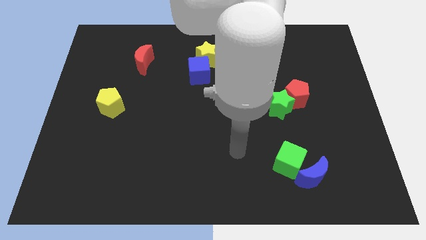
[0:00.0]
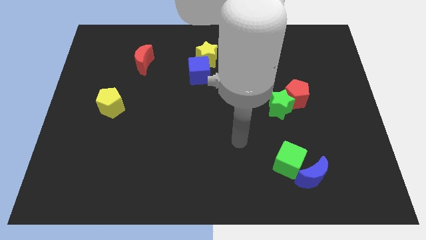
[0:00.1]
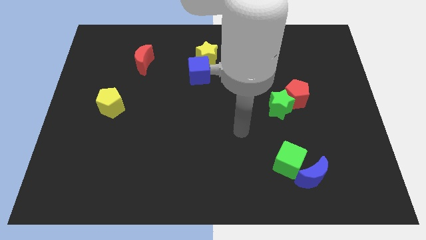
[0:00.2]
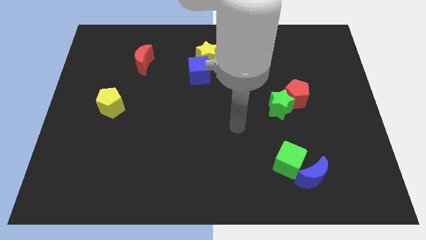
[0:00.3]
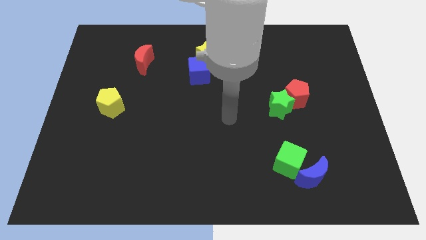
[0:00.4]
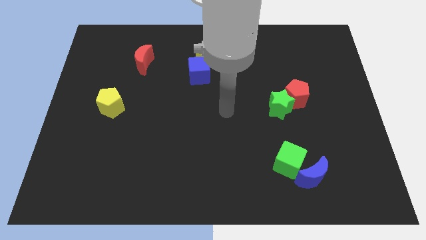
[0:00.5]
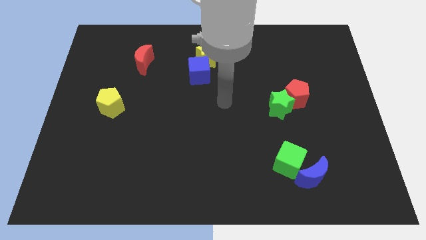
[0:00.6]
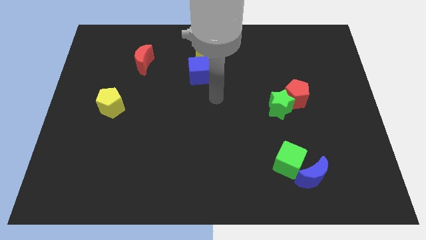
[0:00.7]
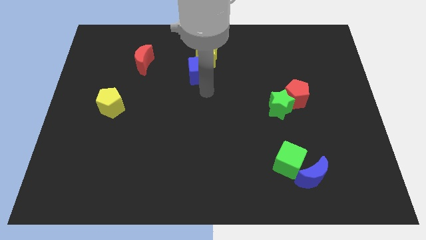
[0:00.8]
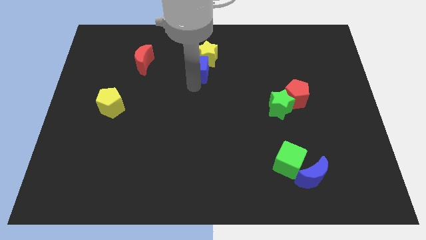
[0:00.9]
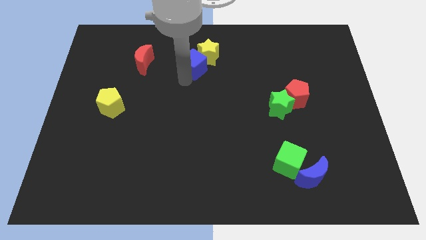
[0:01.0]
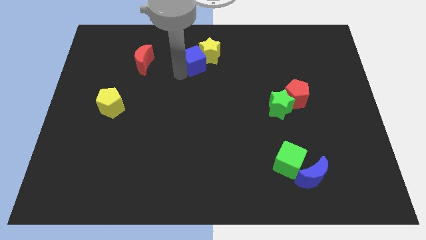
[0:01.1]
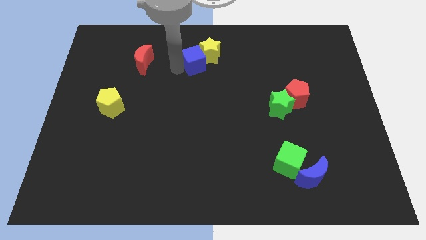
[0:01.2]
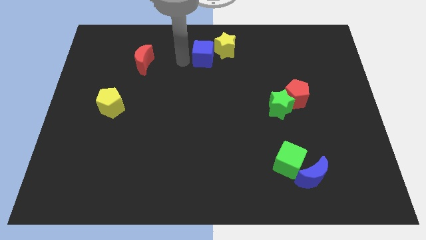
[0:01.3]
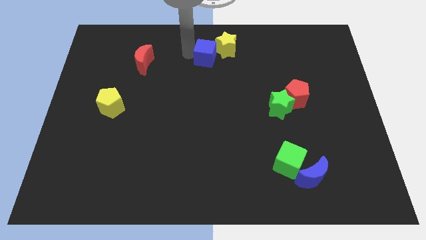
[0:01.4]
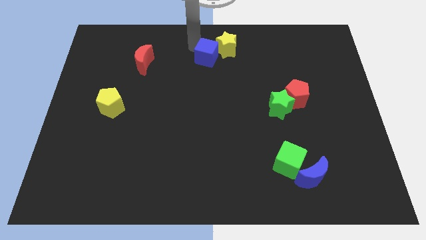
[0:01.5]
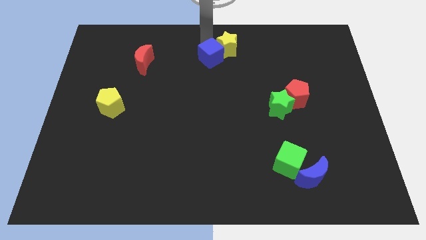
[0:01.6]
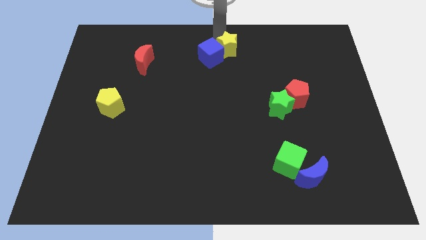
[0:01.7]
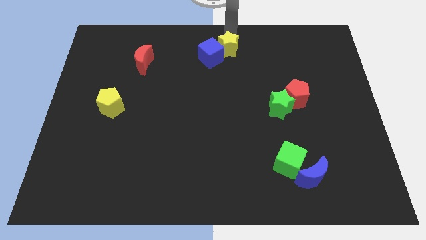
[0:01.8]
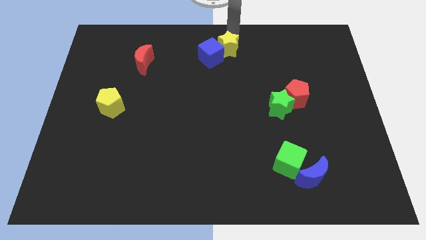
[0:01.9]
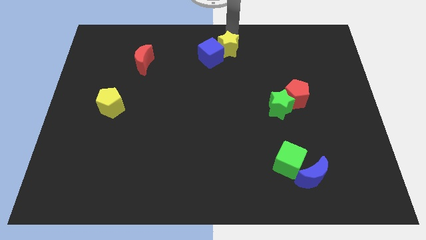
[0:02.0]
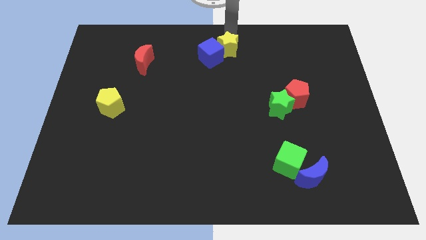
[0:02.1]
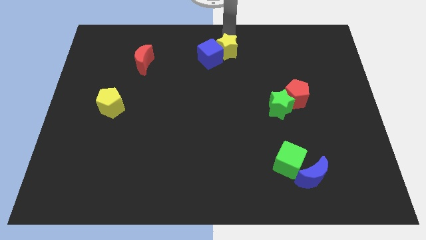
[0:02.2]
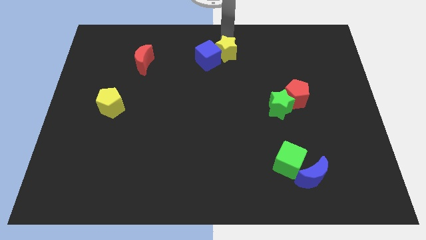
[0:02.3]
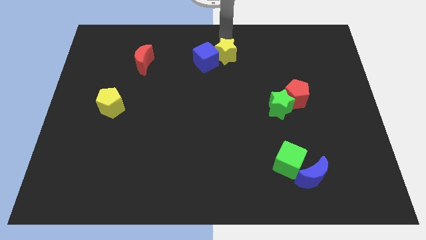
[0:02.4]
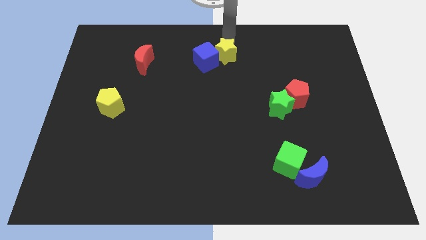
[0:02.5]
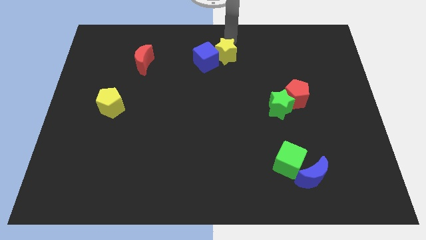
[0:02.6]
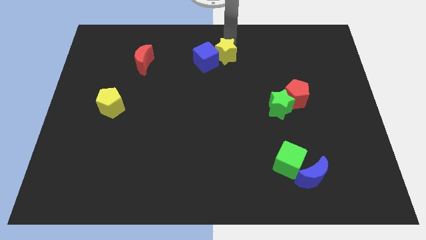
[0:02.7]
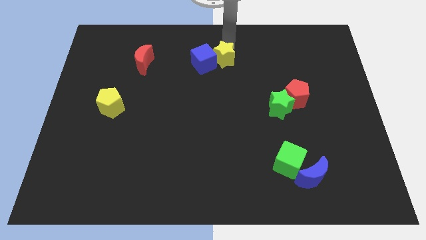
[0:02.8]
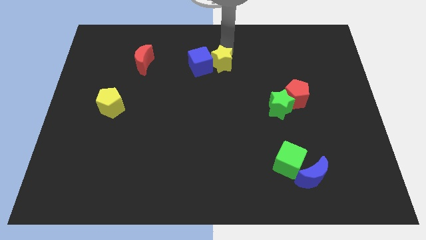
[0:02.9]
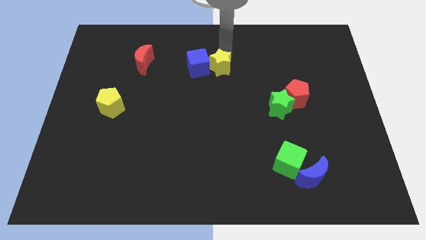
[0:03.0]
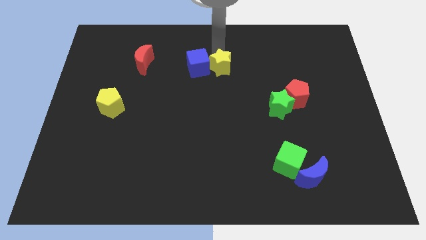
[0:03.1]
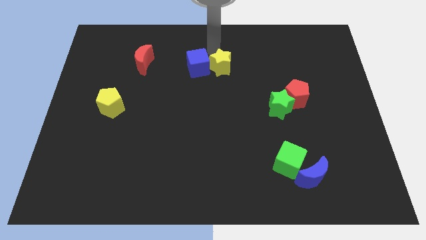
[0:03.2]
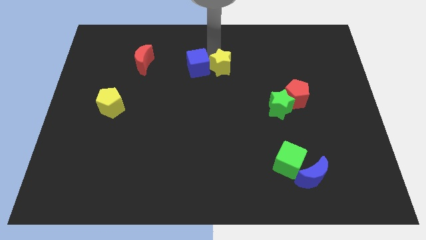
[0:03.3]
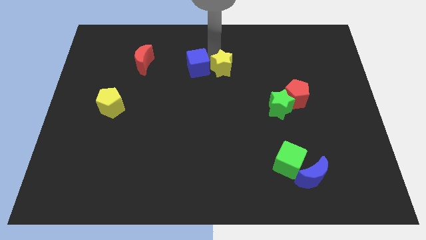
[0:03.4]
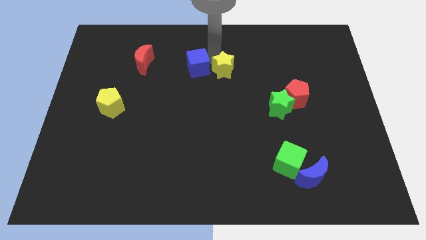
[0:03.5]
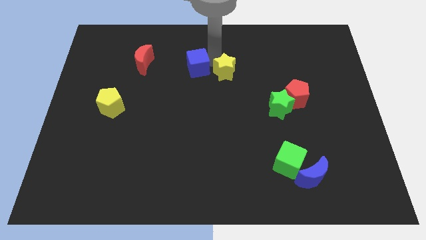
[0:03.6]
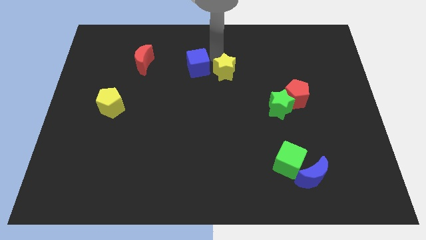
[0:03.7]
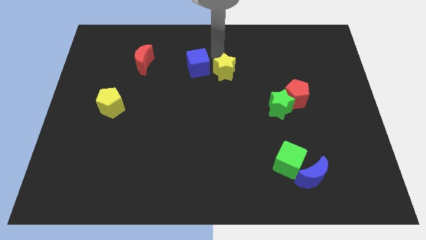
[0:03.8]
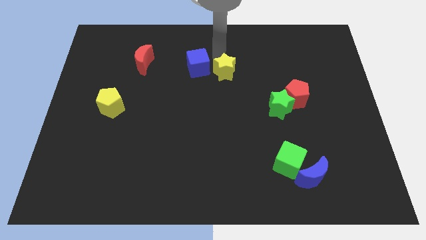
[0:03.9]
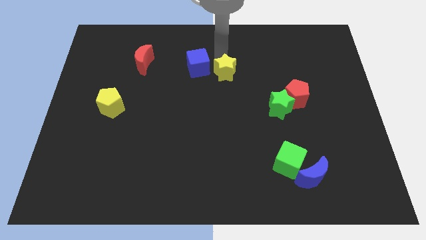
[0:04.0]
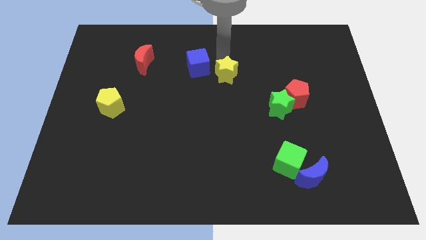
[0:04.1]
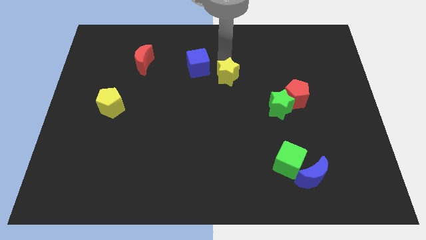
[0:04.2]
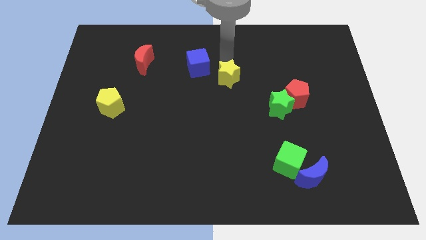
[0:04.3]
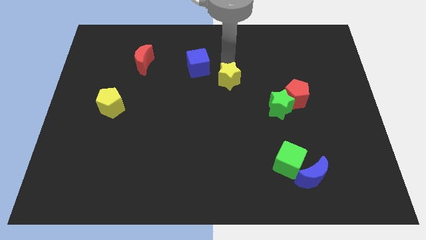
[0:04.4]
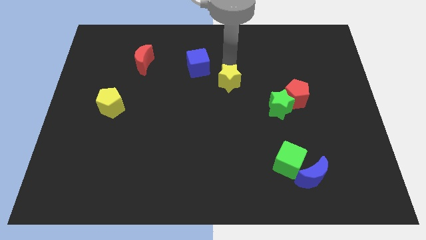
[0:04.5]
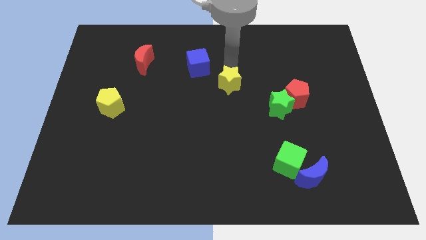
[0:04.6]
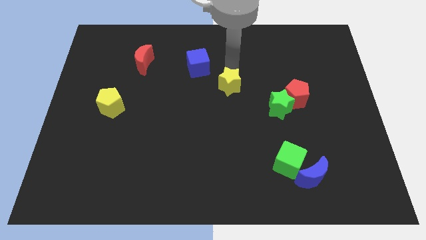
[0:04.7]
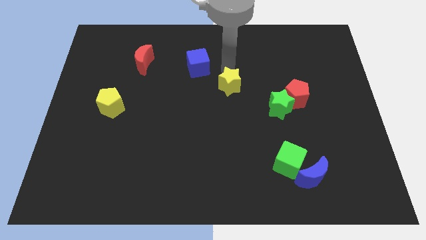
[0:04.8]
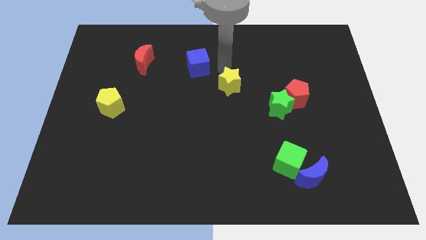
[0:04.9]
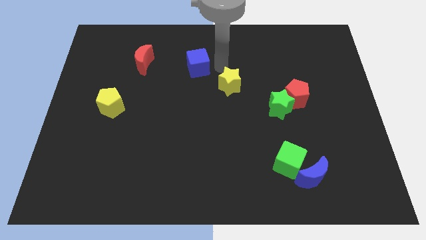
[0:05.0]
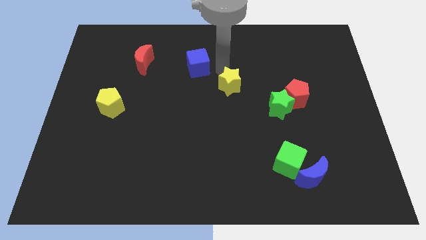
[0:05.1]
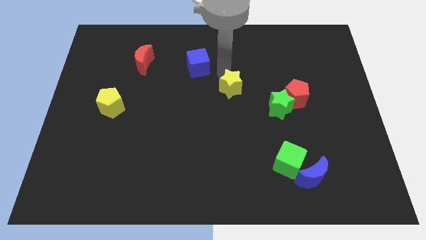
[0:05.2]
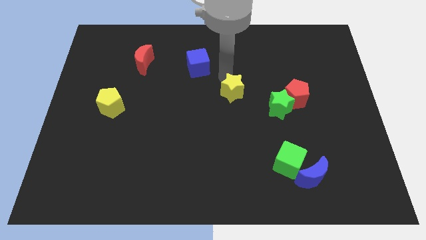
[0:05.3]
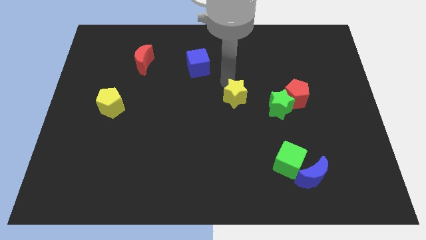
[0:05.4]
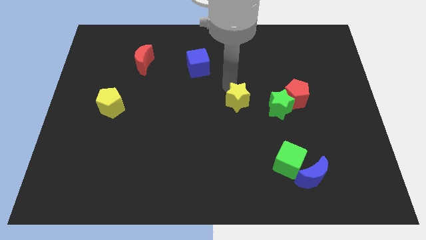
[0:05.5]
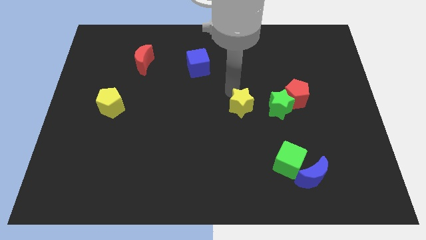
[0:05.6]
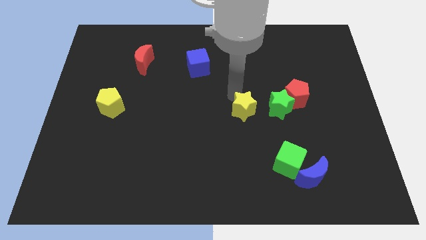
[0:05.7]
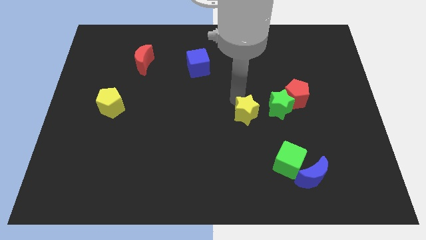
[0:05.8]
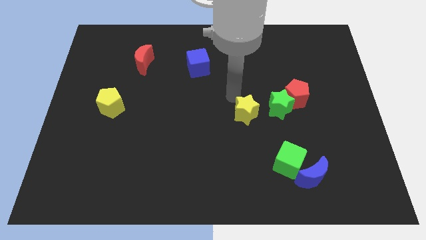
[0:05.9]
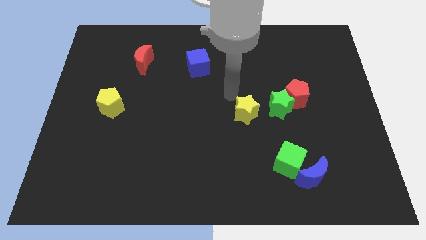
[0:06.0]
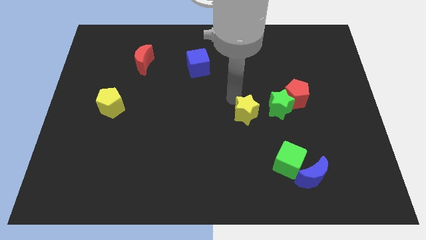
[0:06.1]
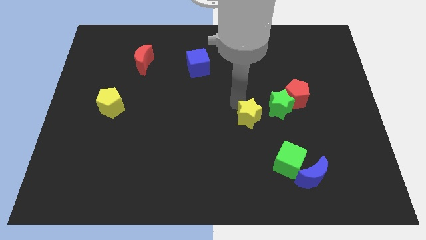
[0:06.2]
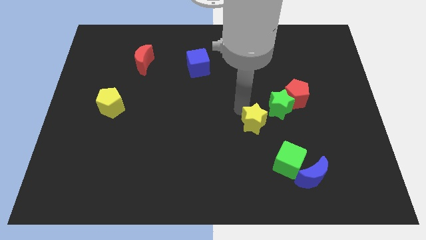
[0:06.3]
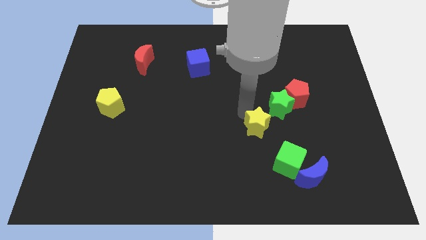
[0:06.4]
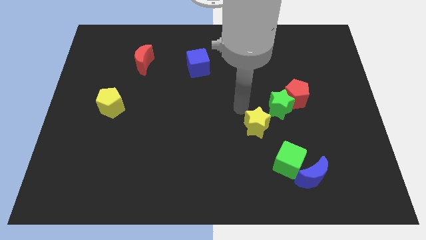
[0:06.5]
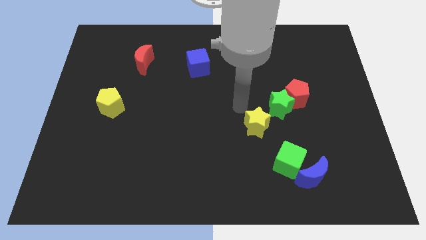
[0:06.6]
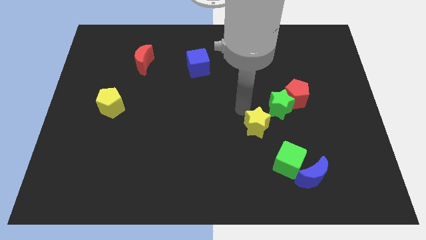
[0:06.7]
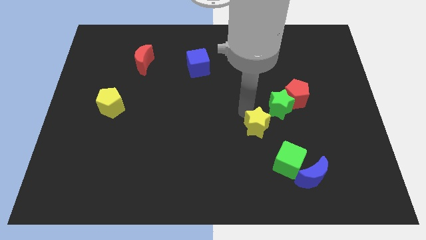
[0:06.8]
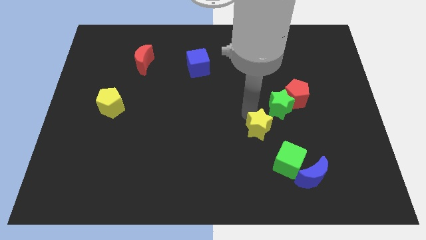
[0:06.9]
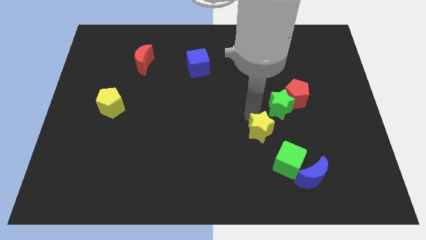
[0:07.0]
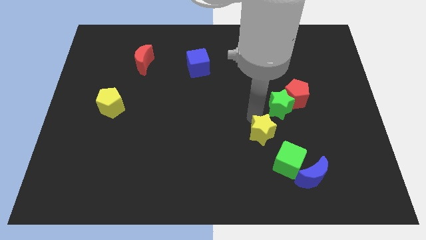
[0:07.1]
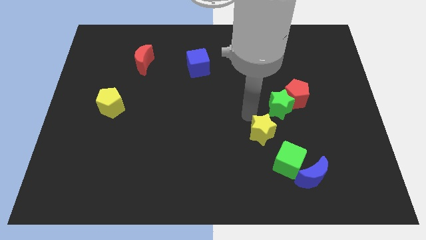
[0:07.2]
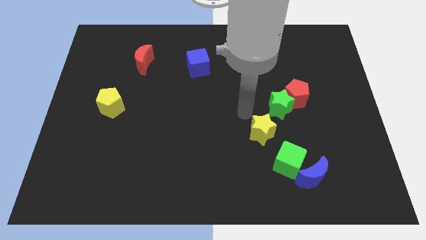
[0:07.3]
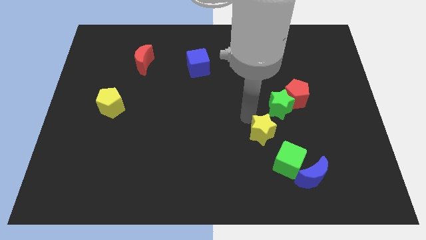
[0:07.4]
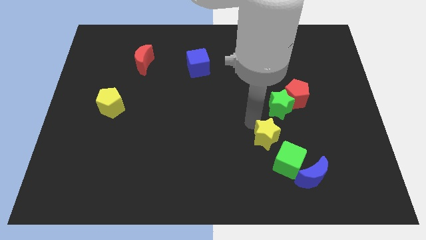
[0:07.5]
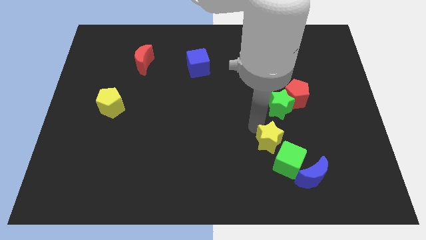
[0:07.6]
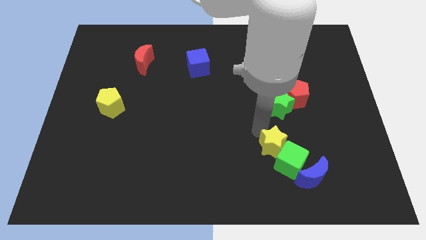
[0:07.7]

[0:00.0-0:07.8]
slide the yellow star to the green cube
